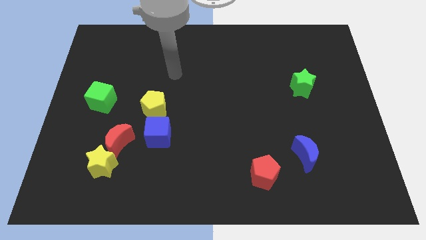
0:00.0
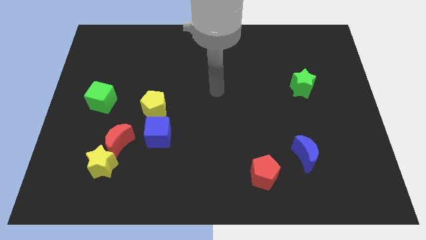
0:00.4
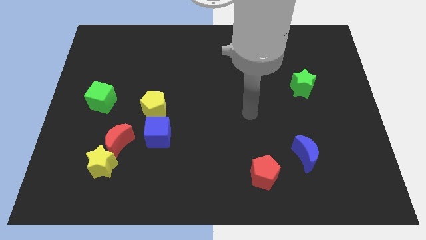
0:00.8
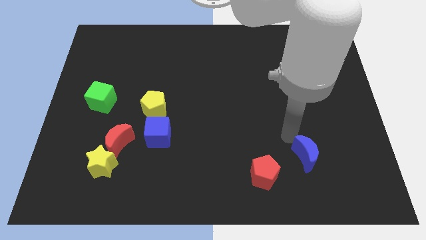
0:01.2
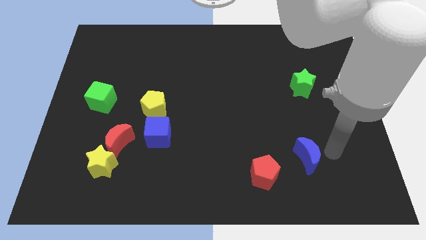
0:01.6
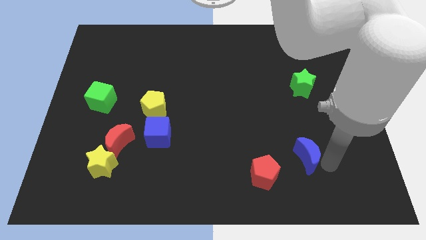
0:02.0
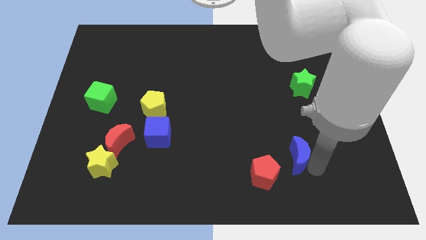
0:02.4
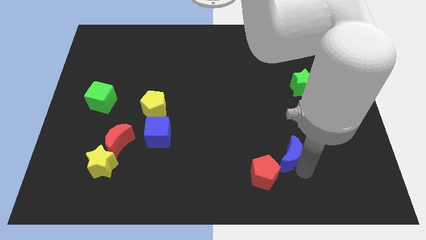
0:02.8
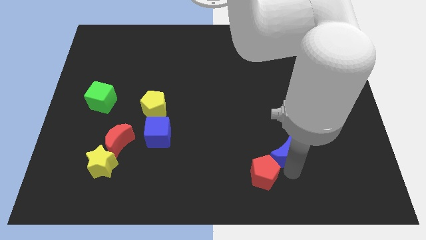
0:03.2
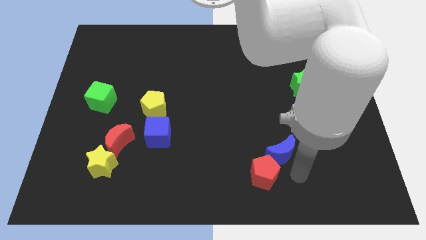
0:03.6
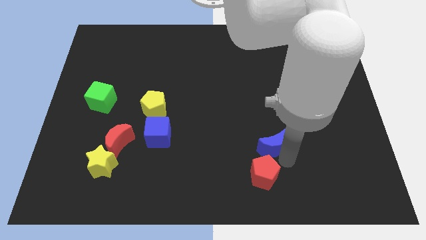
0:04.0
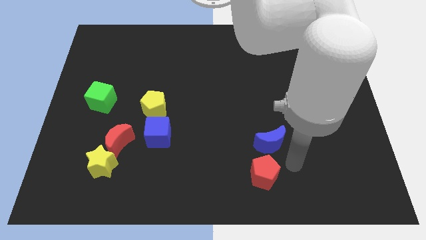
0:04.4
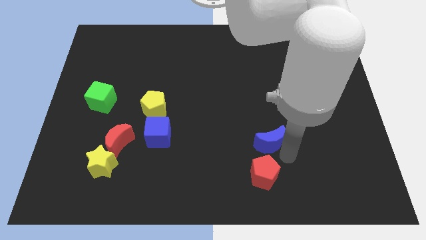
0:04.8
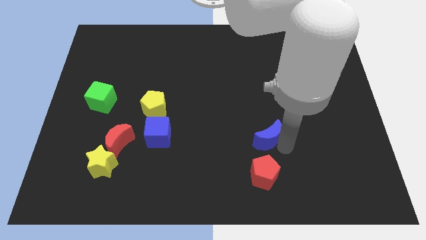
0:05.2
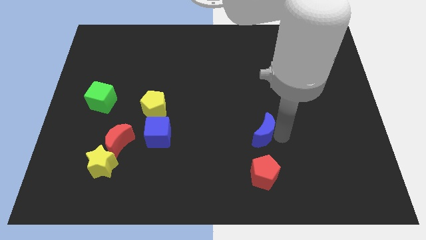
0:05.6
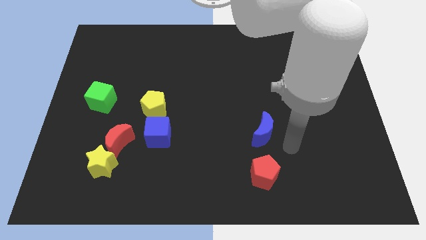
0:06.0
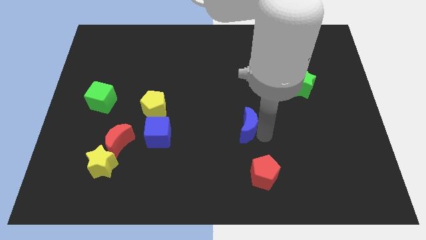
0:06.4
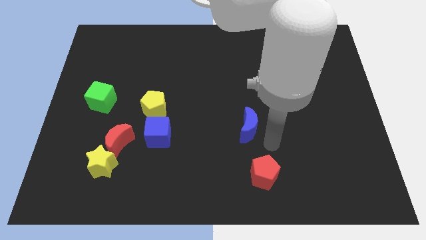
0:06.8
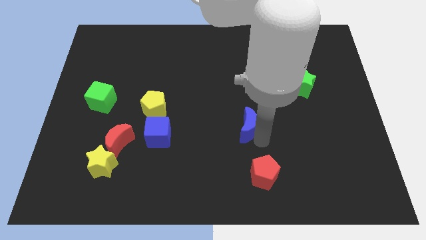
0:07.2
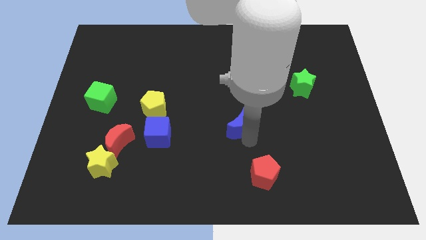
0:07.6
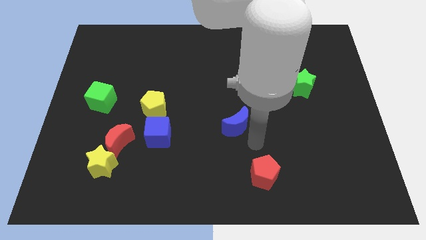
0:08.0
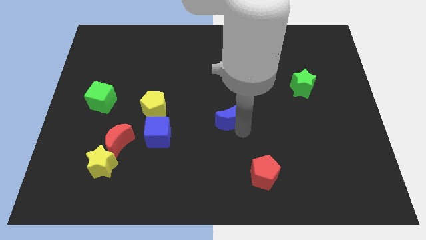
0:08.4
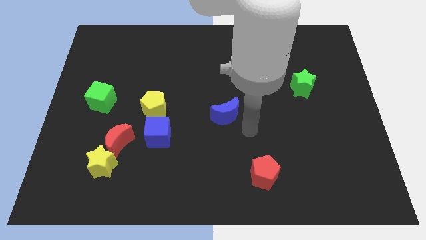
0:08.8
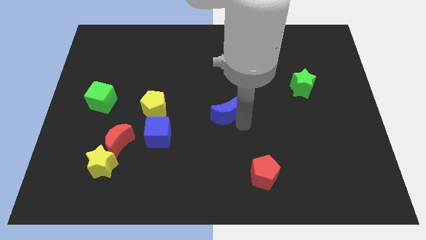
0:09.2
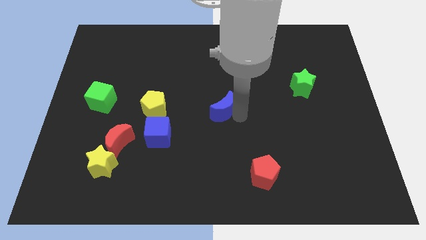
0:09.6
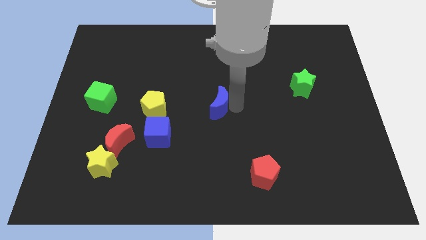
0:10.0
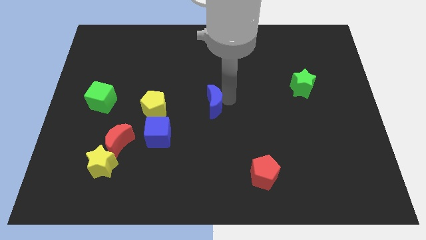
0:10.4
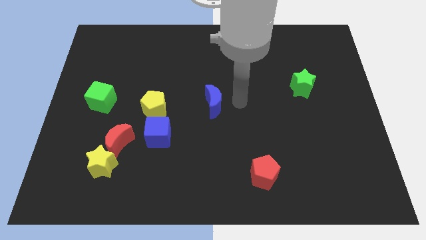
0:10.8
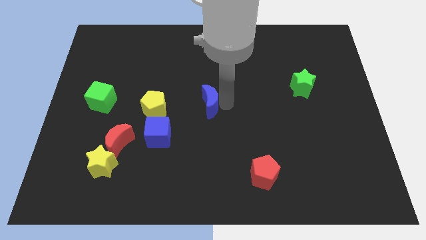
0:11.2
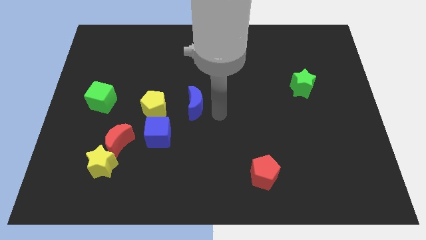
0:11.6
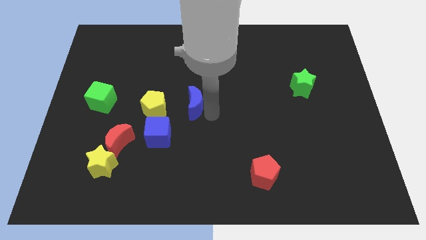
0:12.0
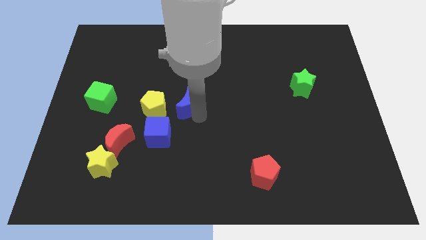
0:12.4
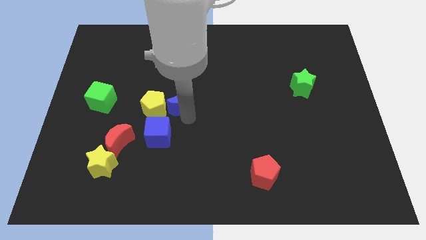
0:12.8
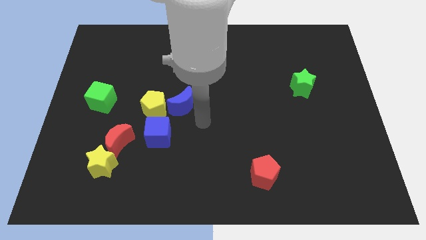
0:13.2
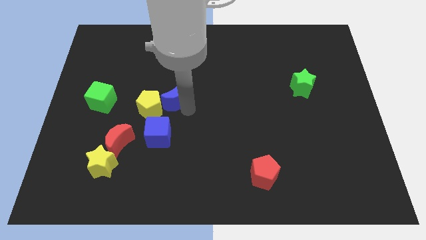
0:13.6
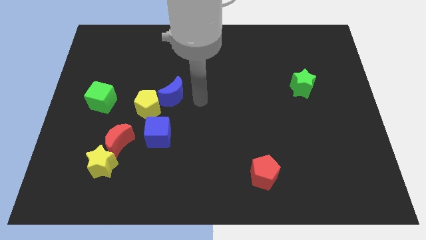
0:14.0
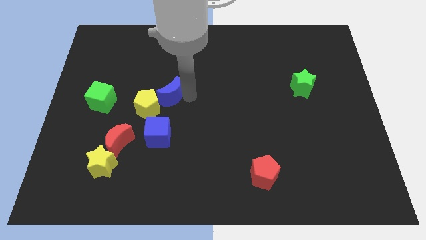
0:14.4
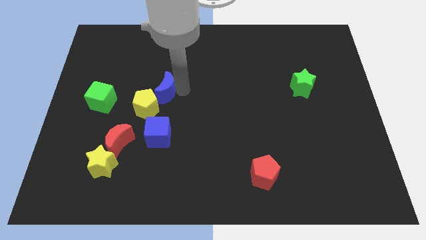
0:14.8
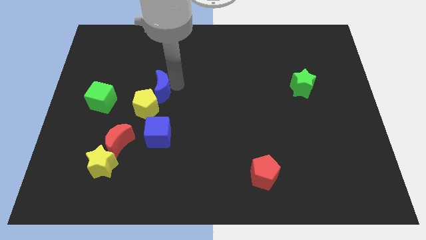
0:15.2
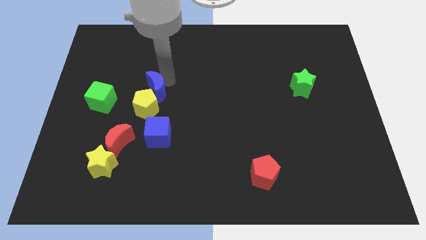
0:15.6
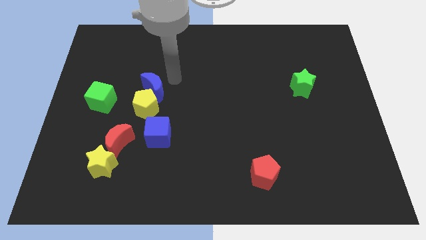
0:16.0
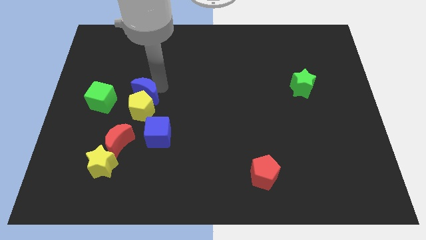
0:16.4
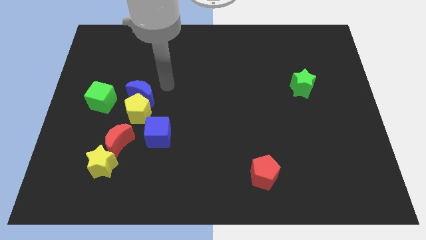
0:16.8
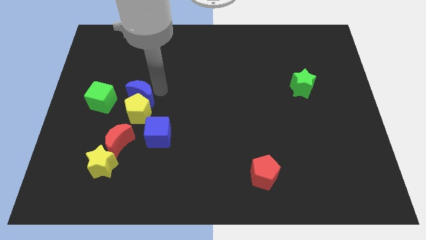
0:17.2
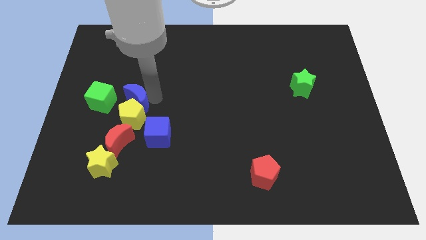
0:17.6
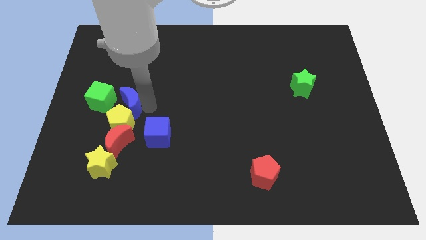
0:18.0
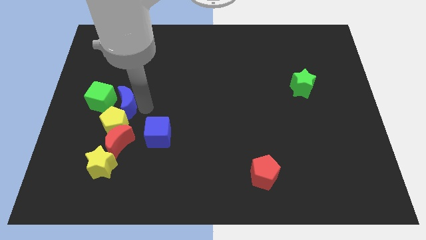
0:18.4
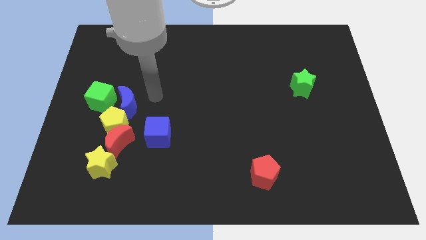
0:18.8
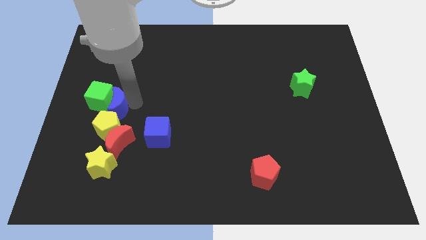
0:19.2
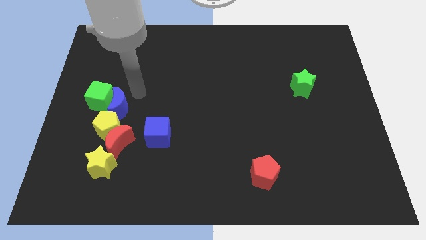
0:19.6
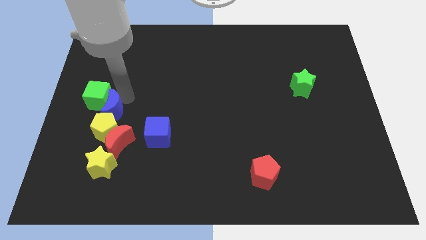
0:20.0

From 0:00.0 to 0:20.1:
slide the blue moon diagonally up and to the left of the red moon

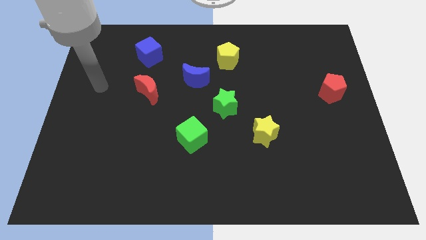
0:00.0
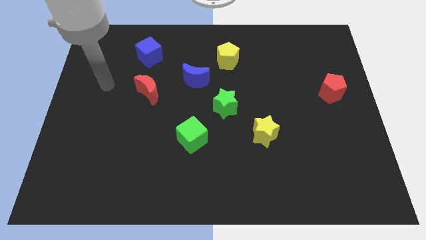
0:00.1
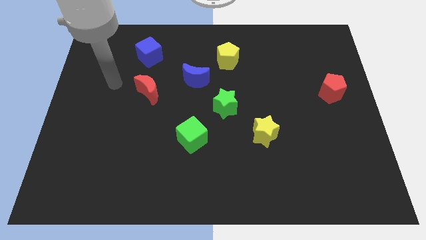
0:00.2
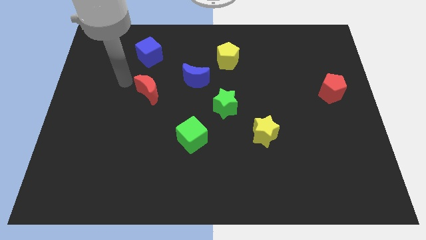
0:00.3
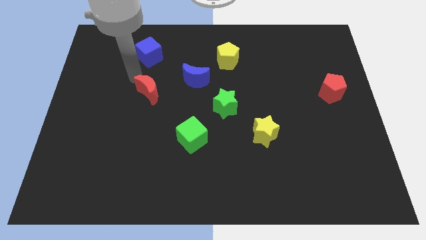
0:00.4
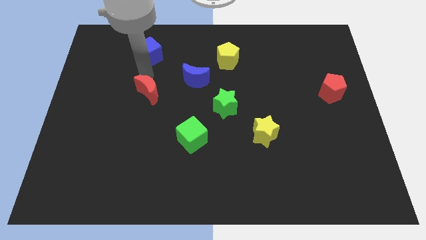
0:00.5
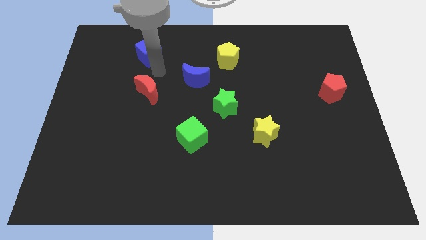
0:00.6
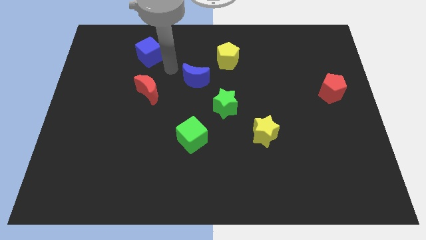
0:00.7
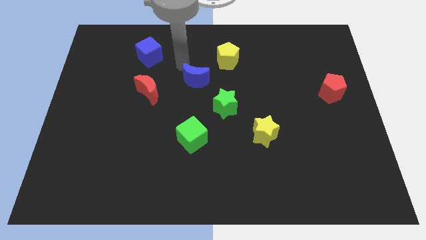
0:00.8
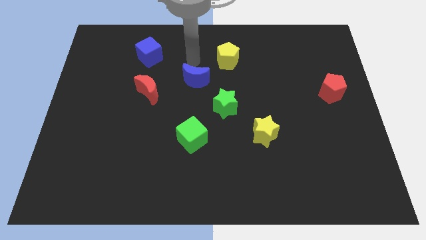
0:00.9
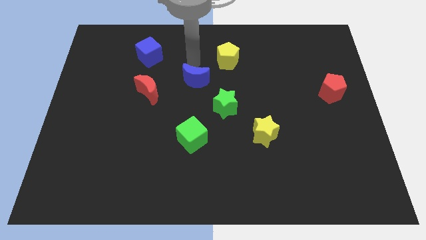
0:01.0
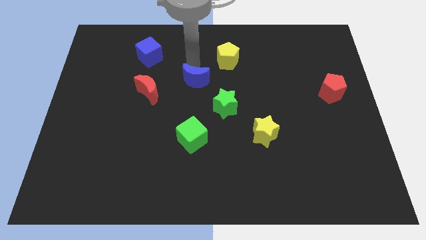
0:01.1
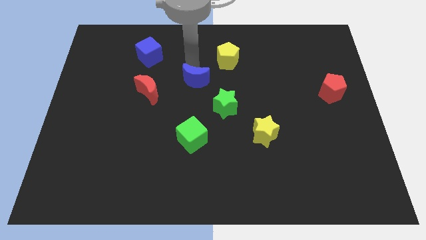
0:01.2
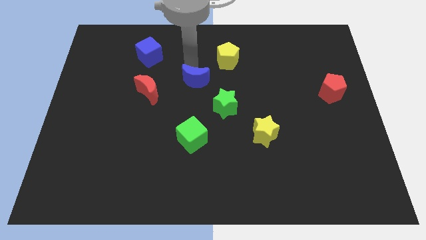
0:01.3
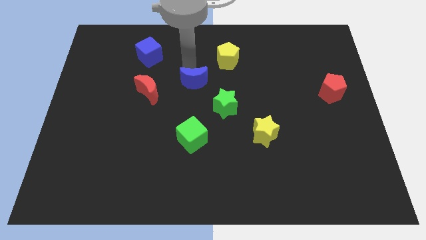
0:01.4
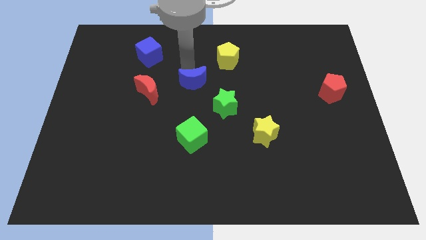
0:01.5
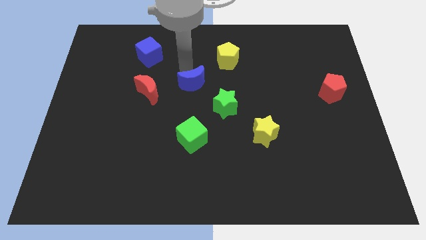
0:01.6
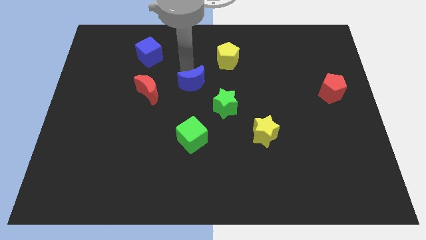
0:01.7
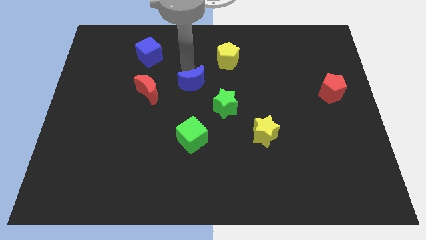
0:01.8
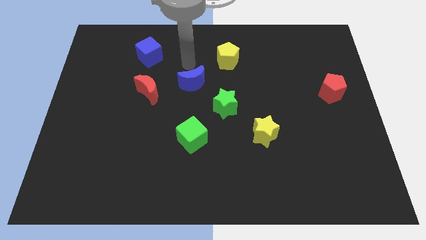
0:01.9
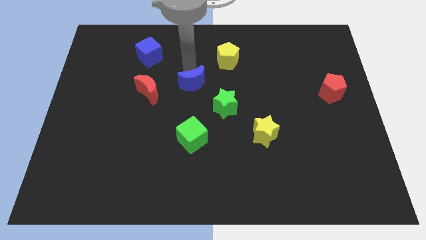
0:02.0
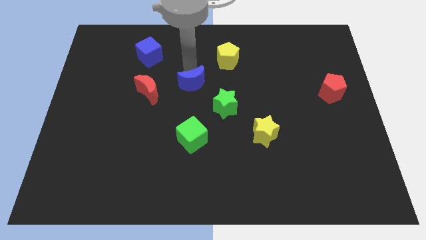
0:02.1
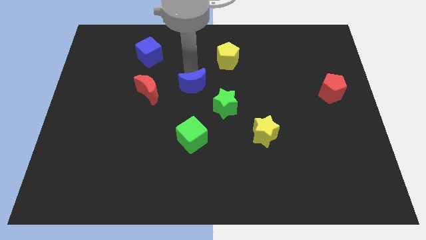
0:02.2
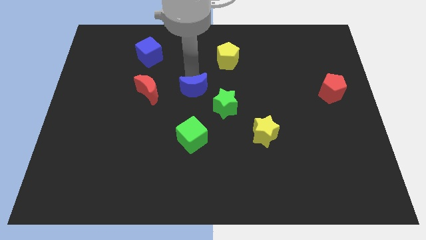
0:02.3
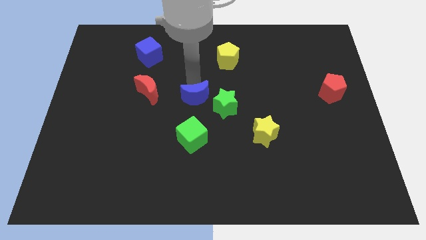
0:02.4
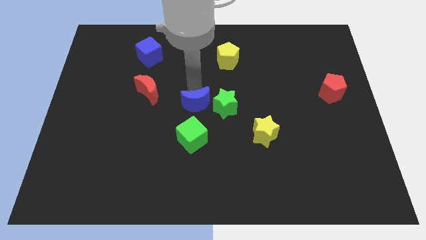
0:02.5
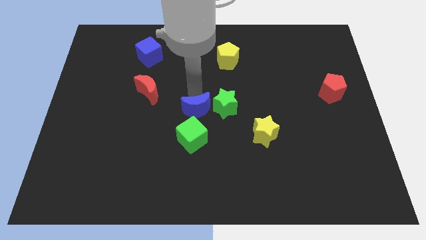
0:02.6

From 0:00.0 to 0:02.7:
move the blue moon to the bottom left side of the green star

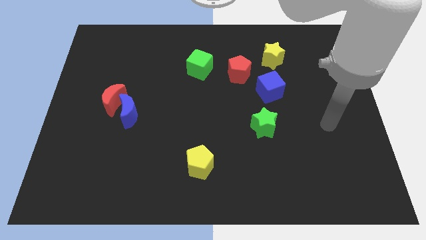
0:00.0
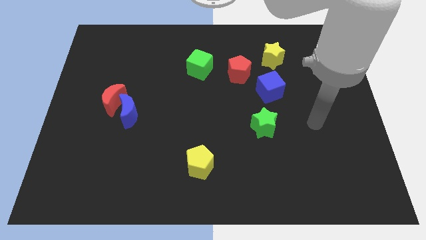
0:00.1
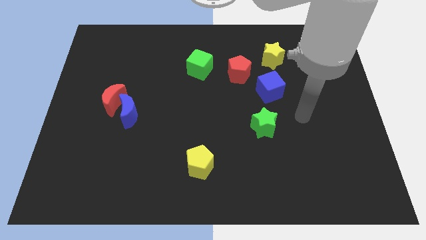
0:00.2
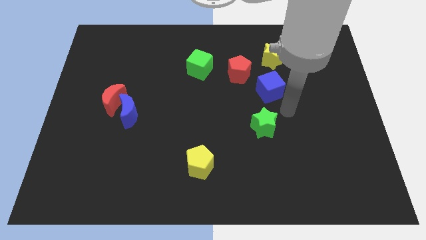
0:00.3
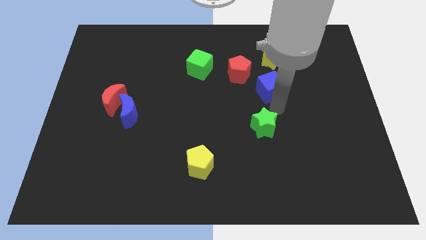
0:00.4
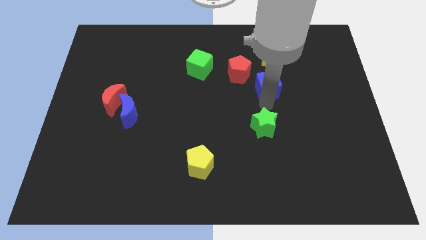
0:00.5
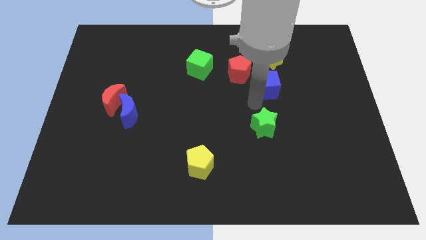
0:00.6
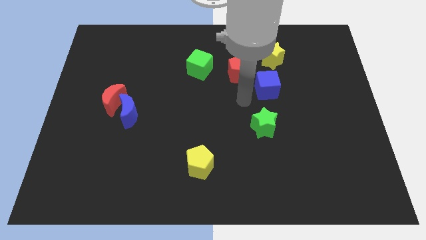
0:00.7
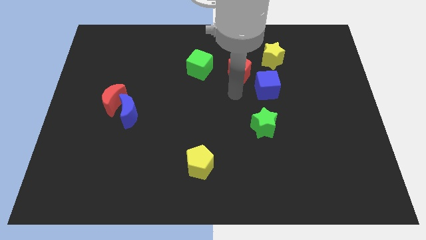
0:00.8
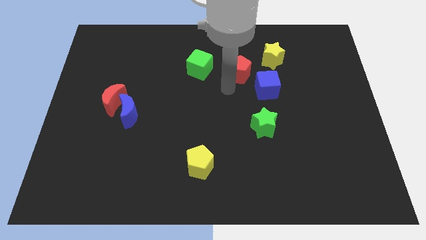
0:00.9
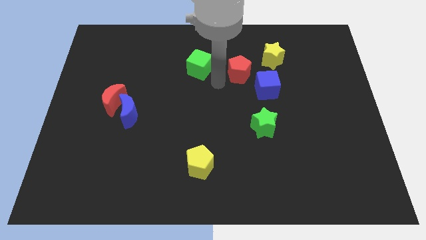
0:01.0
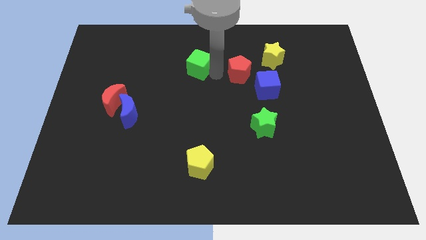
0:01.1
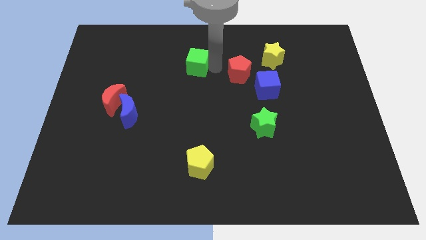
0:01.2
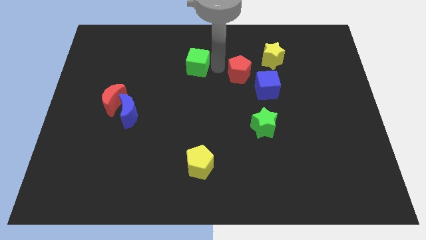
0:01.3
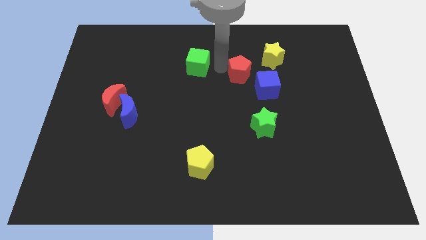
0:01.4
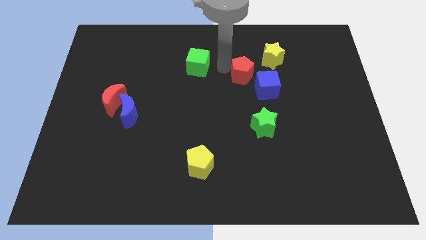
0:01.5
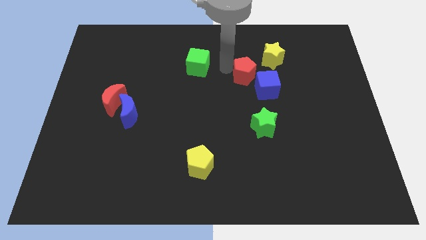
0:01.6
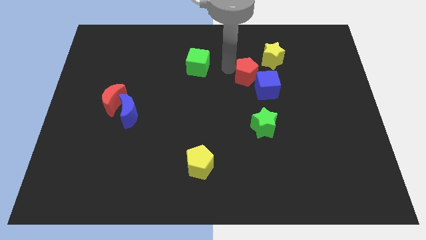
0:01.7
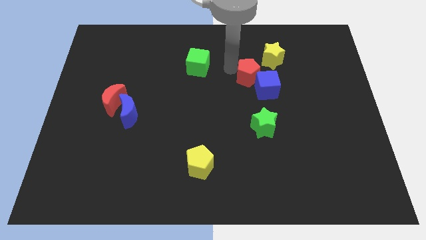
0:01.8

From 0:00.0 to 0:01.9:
move the red pentagon above the green star
